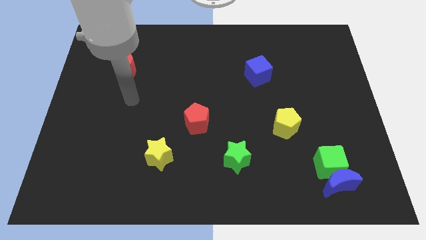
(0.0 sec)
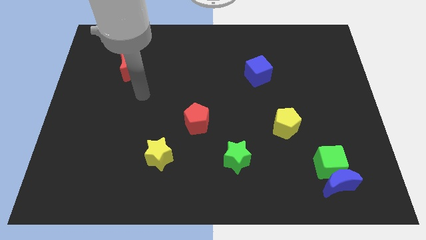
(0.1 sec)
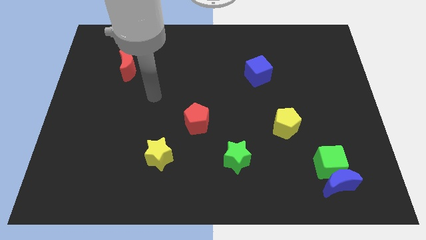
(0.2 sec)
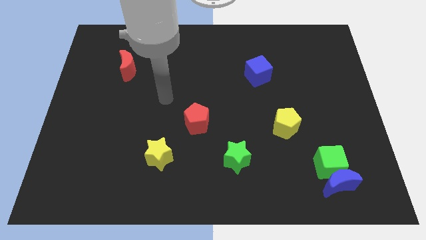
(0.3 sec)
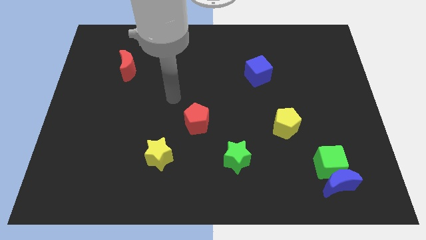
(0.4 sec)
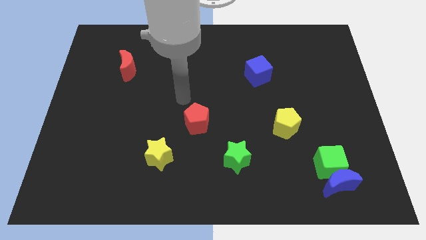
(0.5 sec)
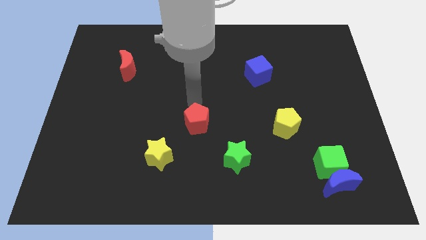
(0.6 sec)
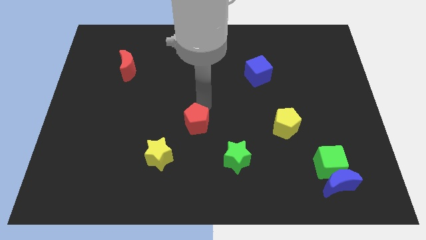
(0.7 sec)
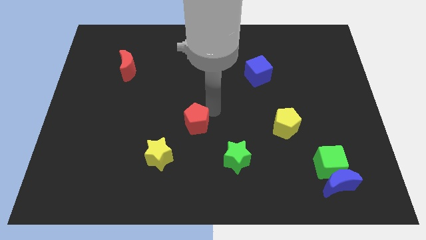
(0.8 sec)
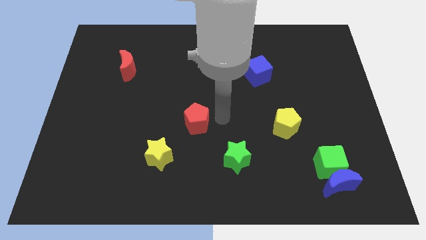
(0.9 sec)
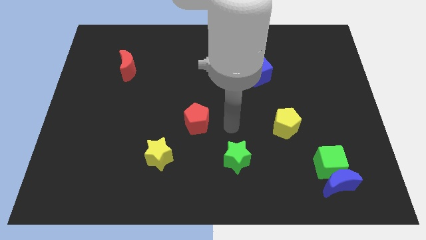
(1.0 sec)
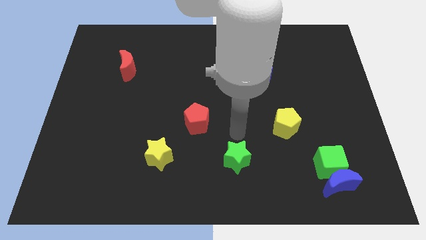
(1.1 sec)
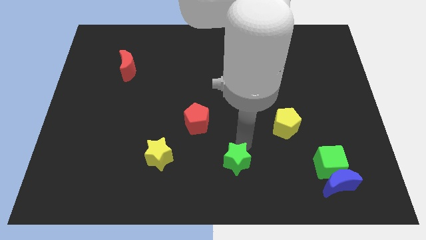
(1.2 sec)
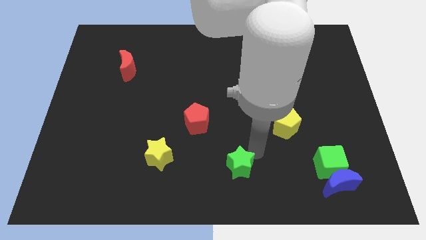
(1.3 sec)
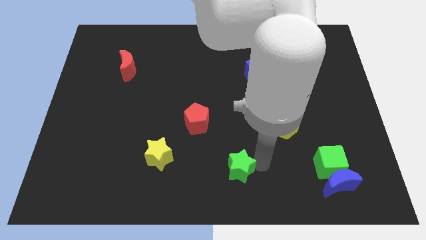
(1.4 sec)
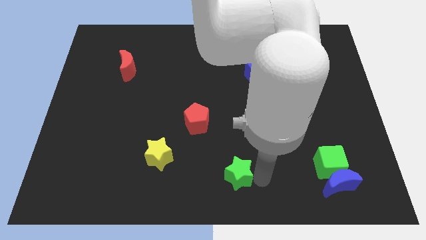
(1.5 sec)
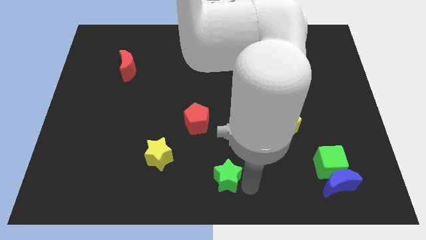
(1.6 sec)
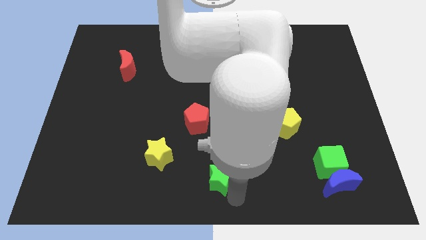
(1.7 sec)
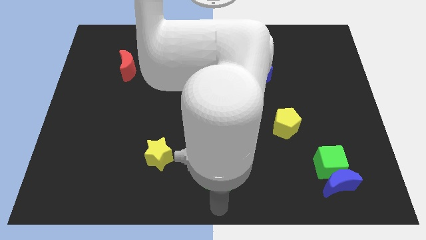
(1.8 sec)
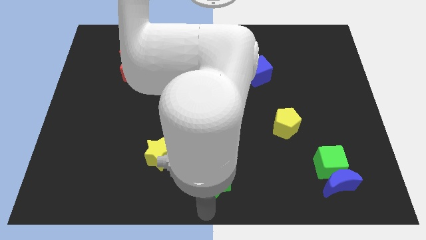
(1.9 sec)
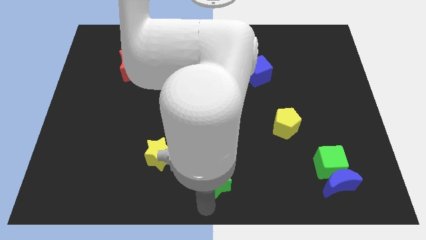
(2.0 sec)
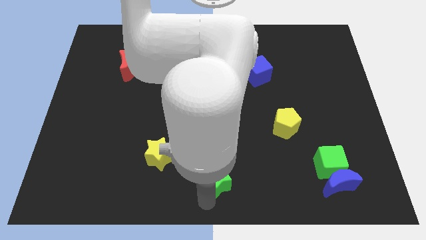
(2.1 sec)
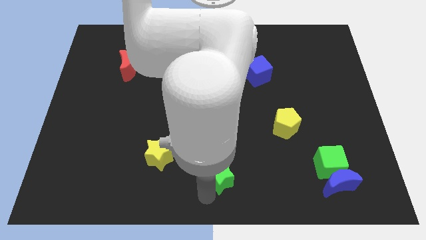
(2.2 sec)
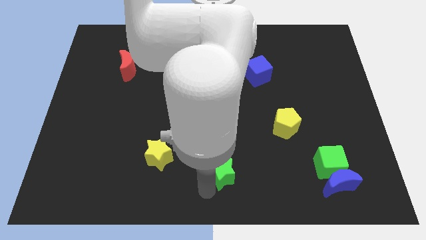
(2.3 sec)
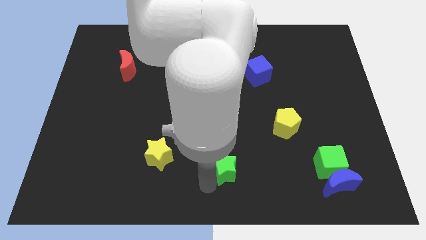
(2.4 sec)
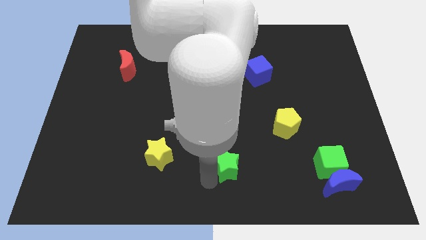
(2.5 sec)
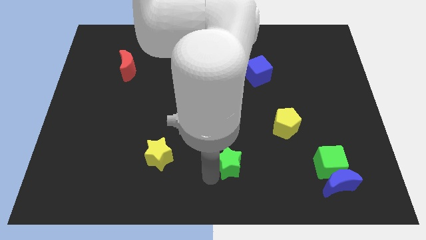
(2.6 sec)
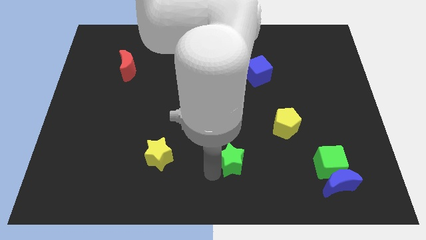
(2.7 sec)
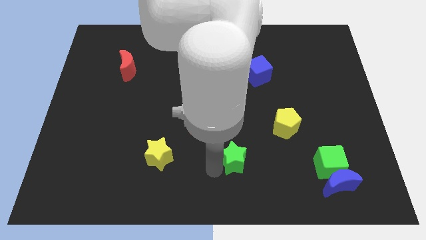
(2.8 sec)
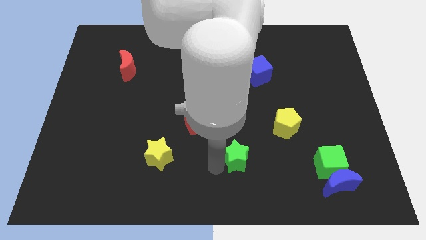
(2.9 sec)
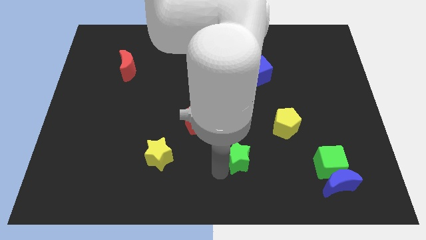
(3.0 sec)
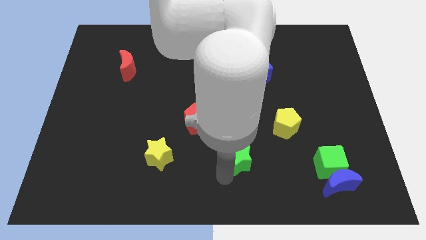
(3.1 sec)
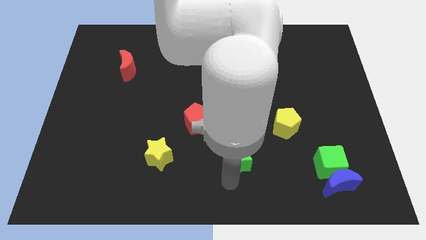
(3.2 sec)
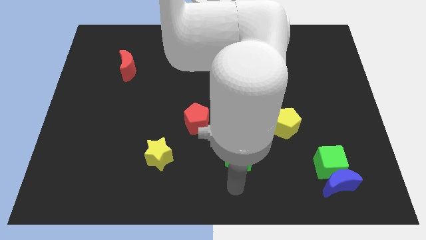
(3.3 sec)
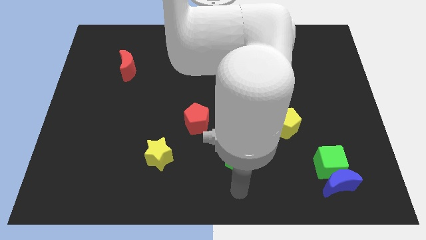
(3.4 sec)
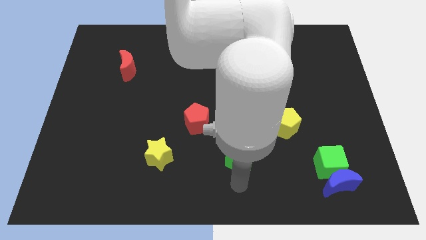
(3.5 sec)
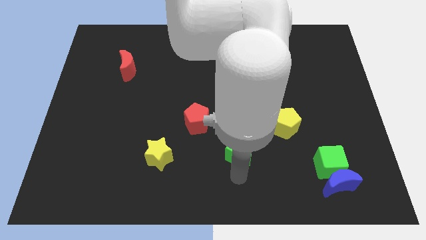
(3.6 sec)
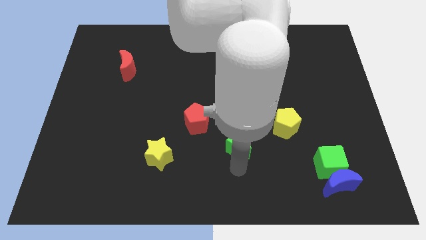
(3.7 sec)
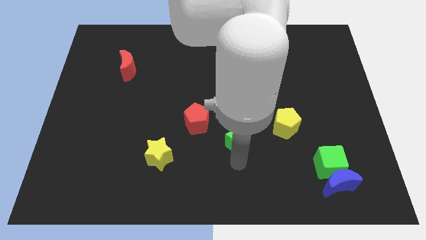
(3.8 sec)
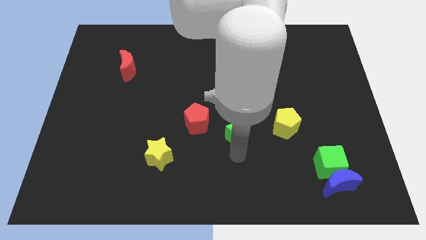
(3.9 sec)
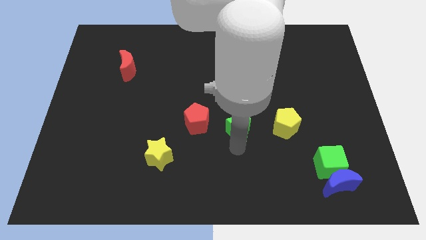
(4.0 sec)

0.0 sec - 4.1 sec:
slide the green star up a bit

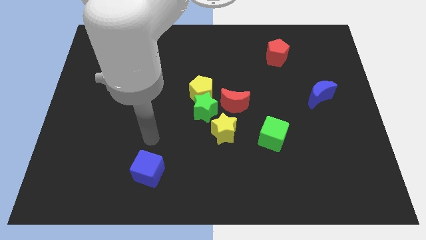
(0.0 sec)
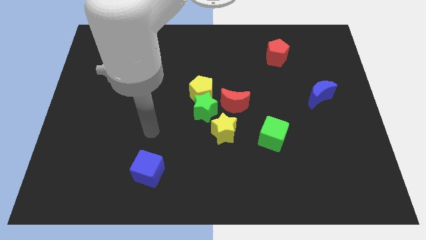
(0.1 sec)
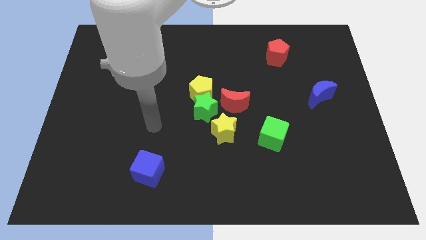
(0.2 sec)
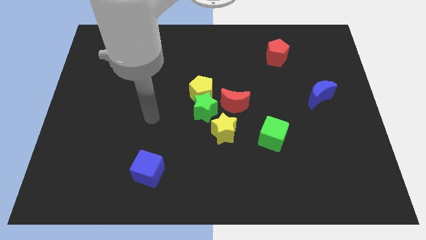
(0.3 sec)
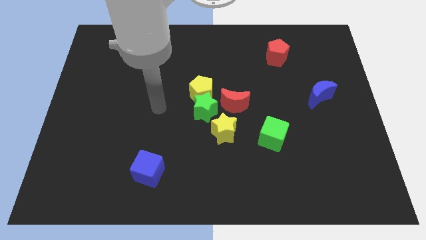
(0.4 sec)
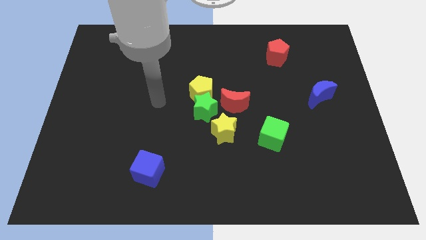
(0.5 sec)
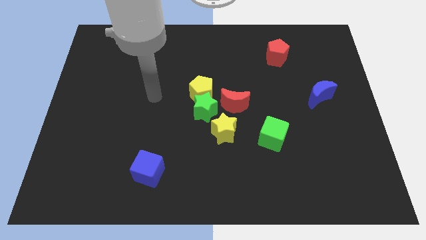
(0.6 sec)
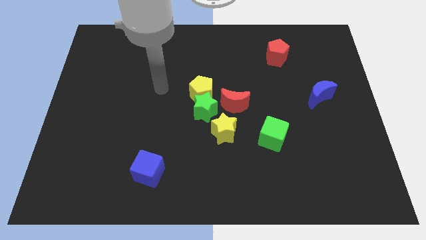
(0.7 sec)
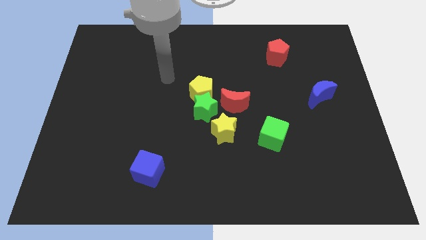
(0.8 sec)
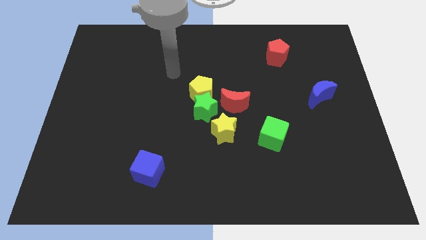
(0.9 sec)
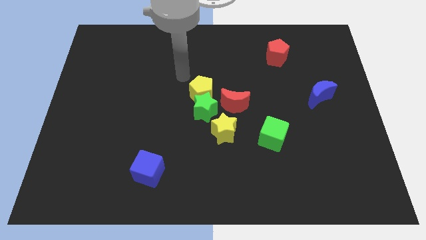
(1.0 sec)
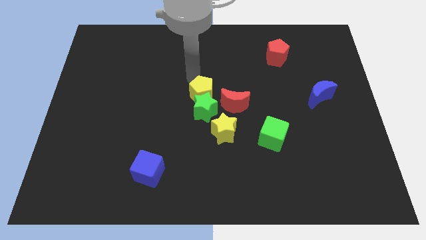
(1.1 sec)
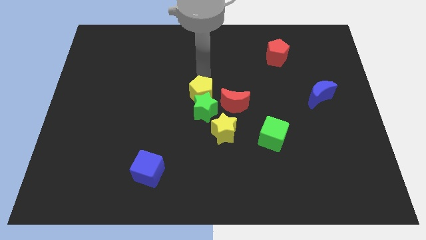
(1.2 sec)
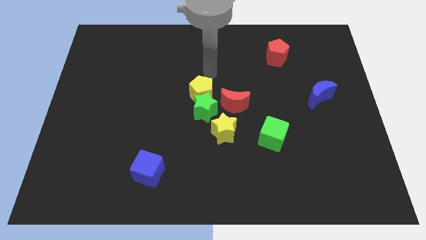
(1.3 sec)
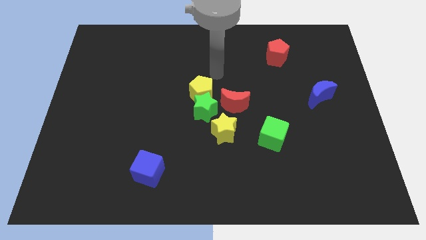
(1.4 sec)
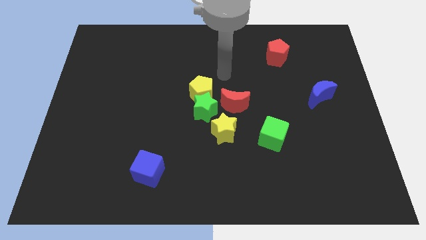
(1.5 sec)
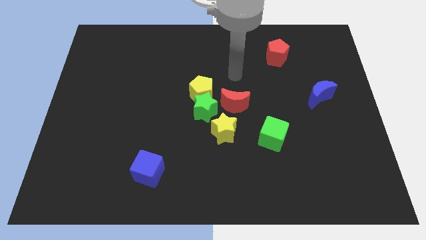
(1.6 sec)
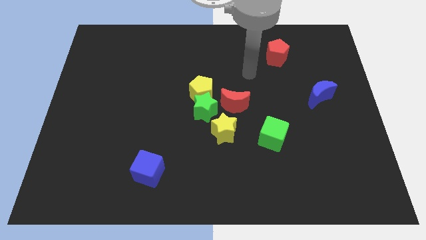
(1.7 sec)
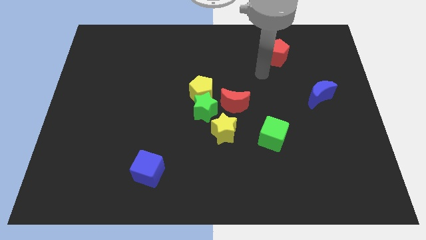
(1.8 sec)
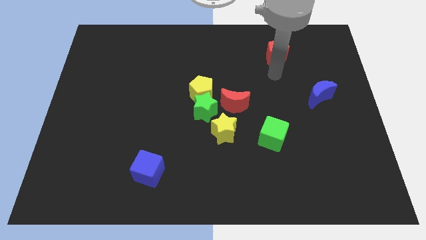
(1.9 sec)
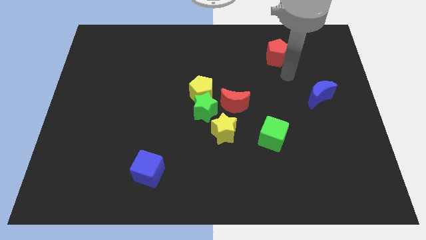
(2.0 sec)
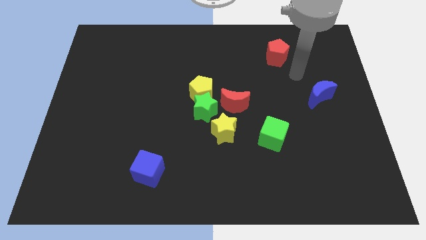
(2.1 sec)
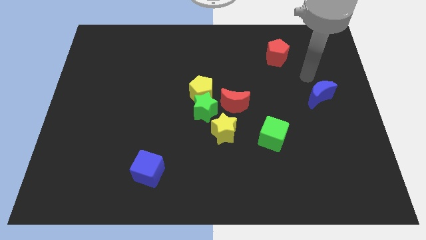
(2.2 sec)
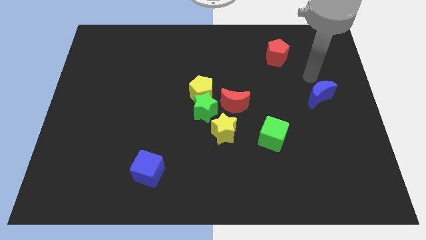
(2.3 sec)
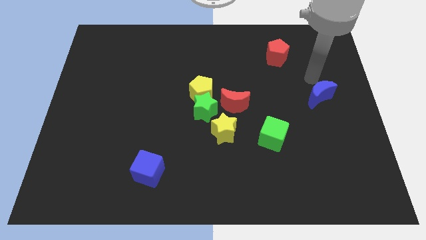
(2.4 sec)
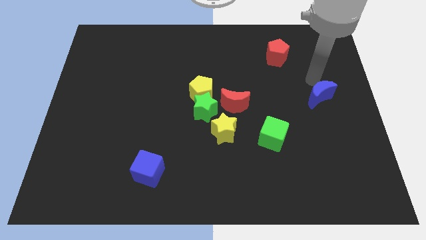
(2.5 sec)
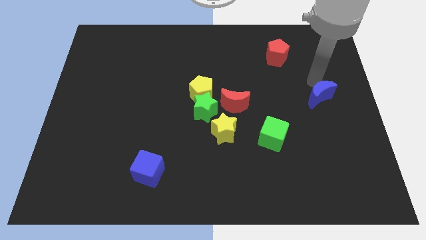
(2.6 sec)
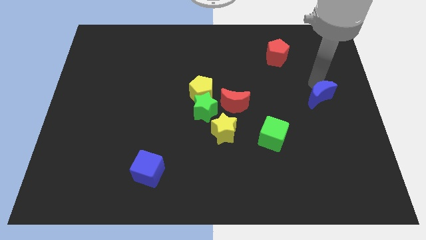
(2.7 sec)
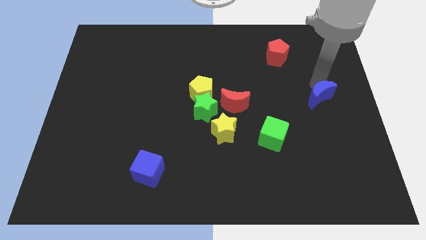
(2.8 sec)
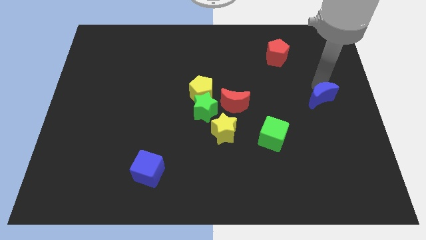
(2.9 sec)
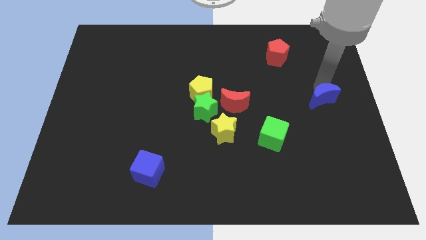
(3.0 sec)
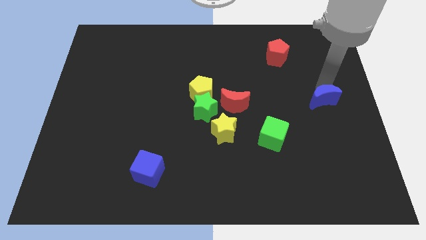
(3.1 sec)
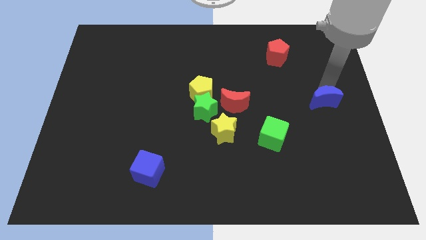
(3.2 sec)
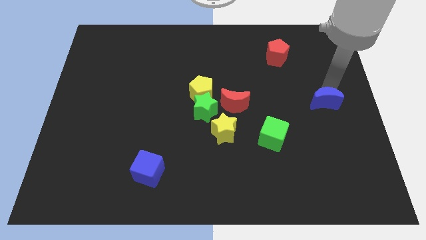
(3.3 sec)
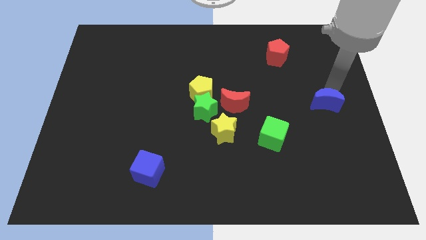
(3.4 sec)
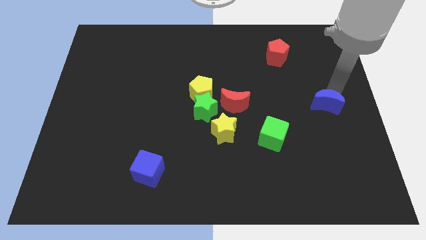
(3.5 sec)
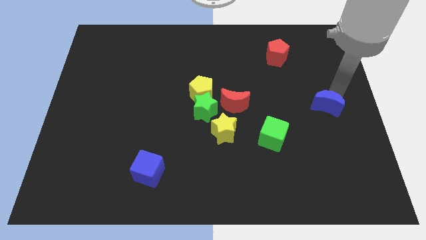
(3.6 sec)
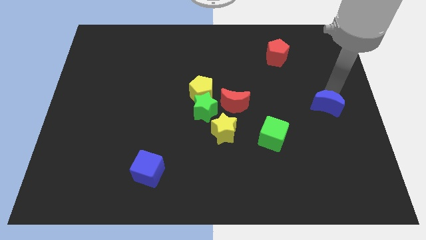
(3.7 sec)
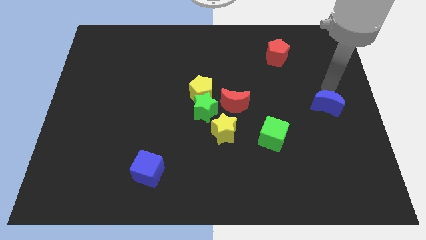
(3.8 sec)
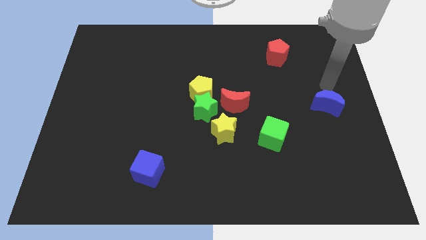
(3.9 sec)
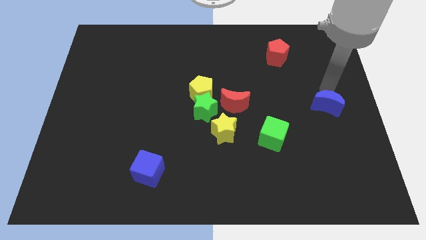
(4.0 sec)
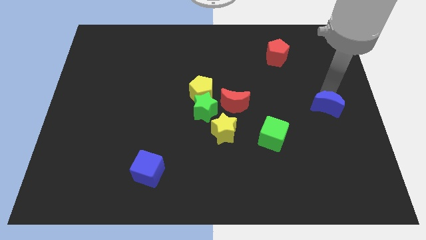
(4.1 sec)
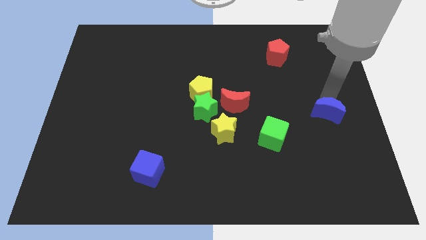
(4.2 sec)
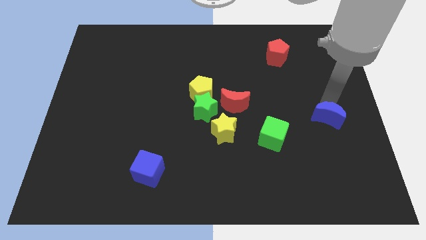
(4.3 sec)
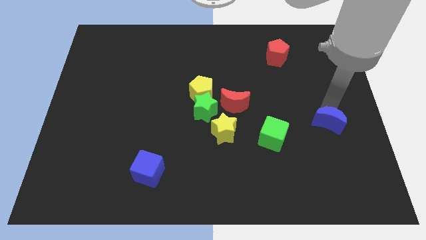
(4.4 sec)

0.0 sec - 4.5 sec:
slightly move the blue moon downwards
